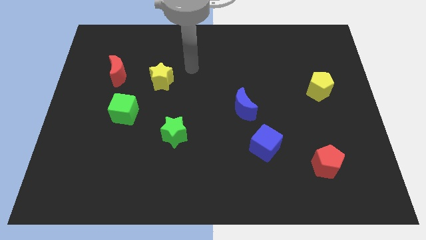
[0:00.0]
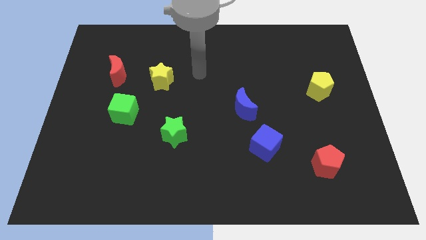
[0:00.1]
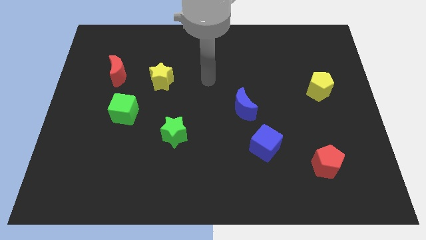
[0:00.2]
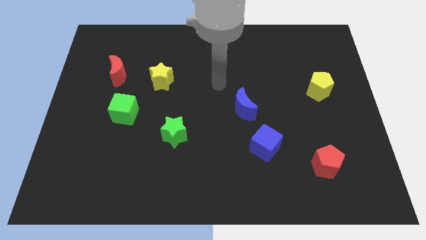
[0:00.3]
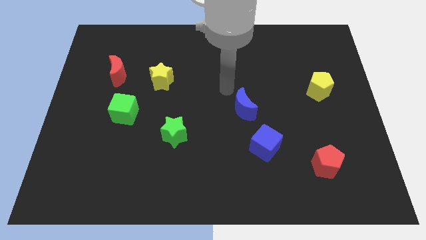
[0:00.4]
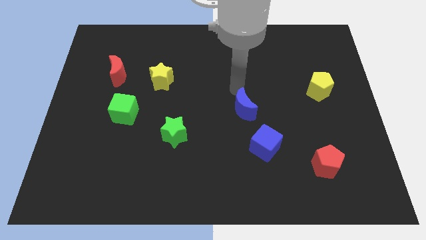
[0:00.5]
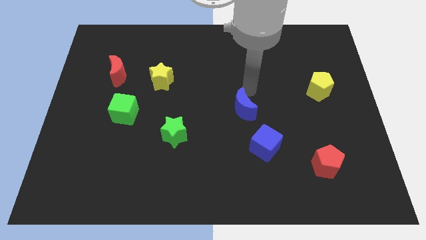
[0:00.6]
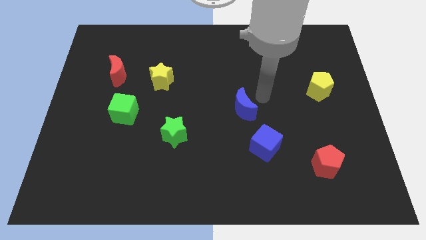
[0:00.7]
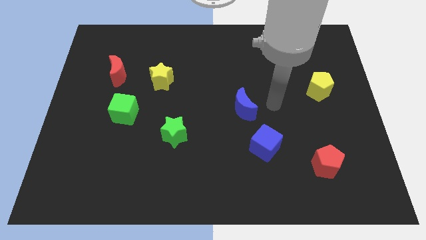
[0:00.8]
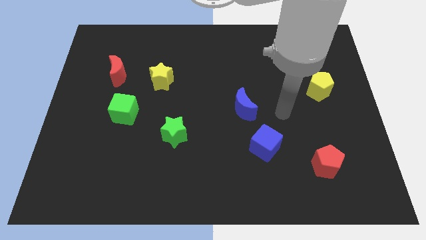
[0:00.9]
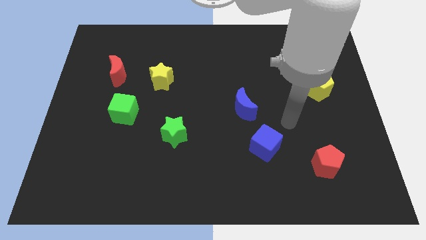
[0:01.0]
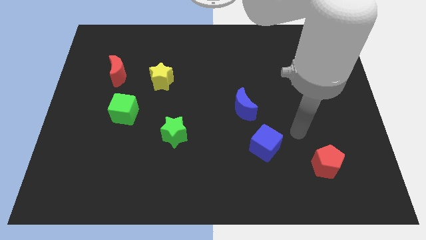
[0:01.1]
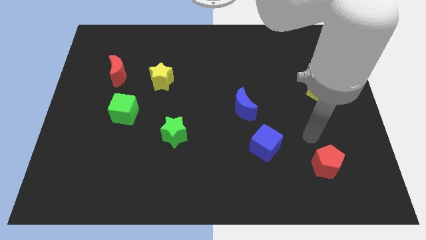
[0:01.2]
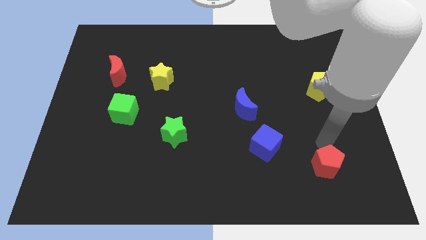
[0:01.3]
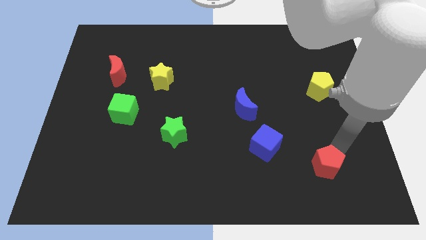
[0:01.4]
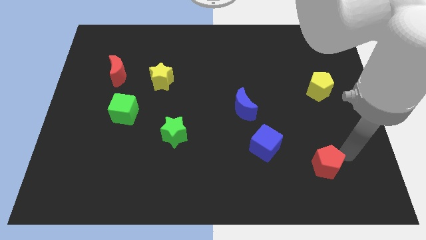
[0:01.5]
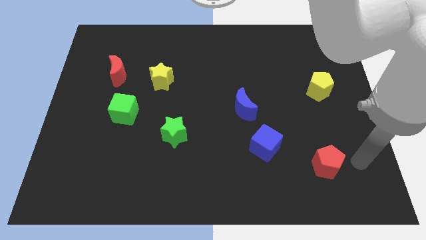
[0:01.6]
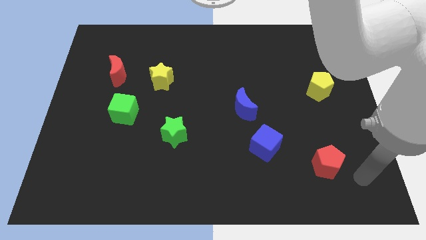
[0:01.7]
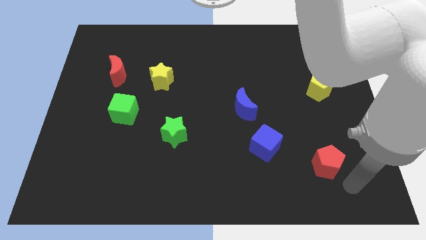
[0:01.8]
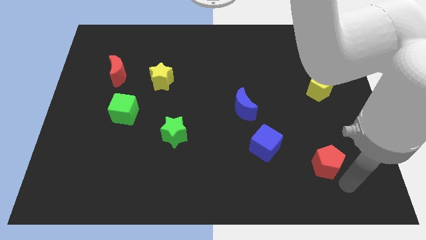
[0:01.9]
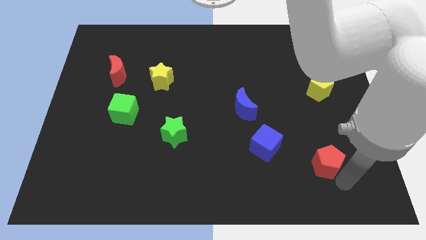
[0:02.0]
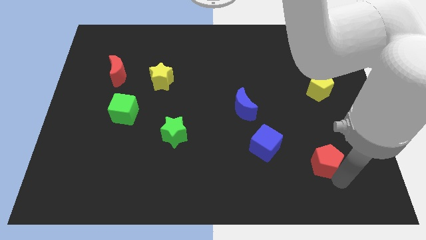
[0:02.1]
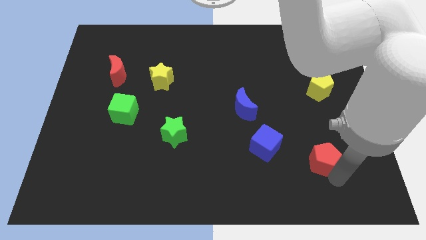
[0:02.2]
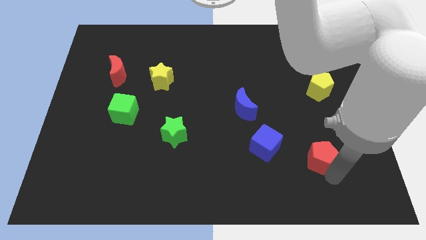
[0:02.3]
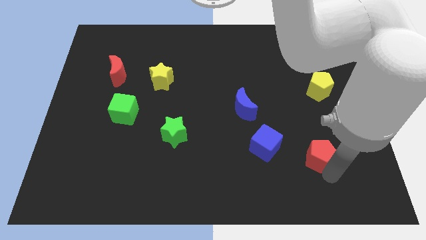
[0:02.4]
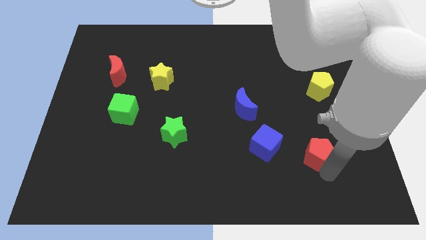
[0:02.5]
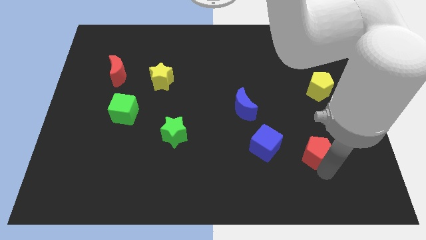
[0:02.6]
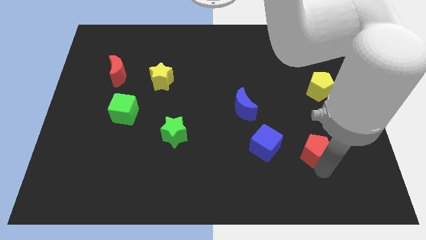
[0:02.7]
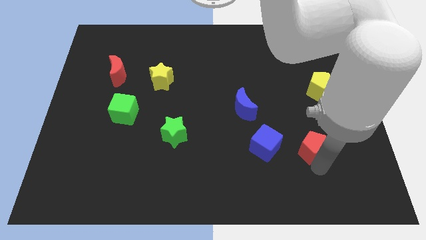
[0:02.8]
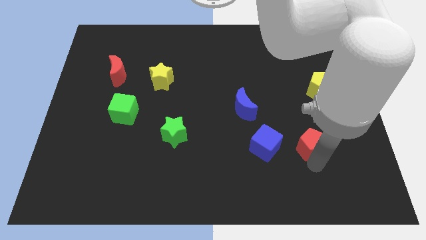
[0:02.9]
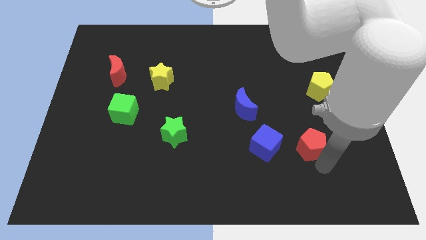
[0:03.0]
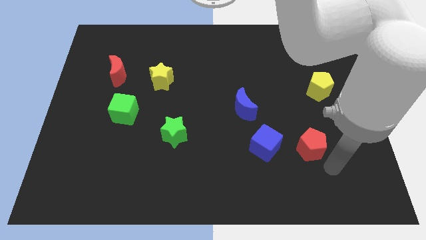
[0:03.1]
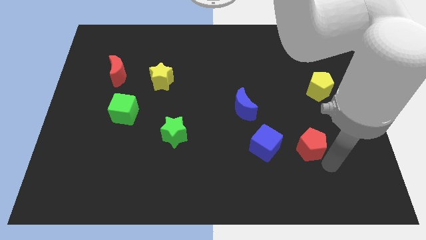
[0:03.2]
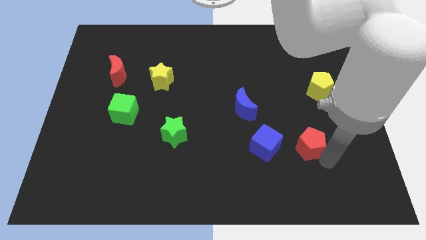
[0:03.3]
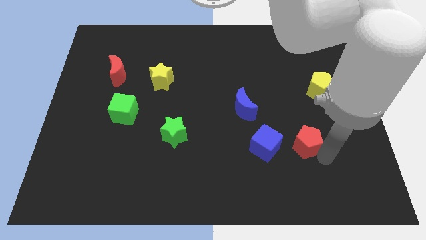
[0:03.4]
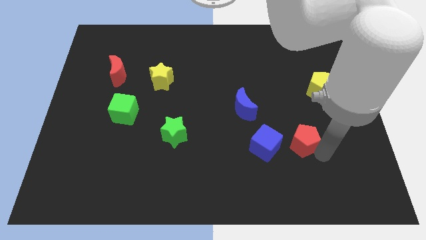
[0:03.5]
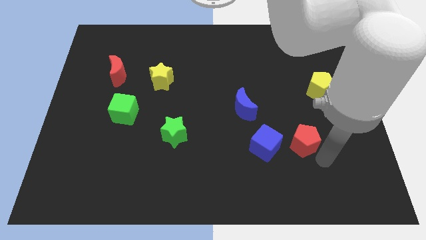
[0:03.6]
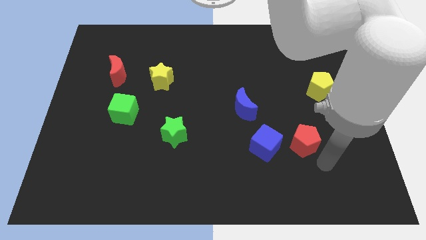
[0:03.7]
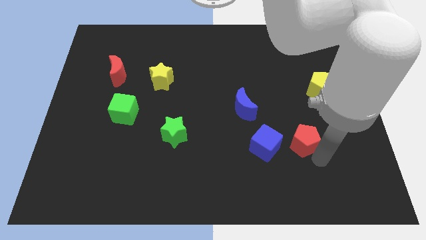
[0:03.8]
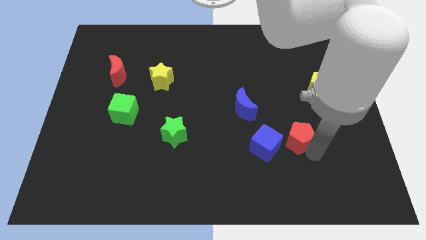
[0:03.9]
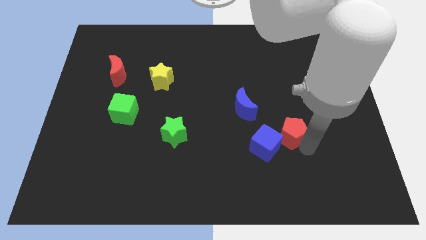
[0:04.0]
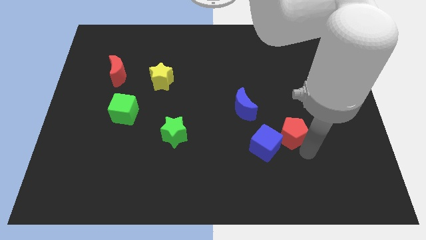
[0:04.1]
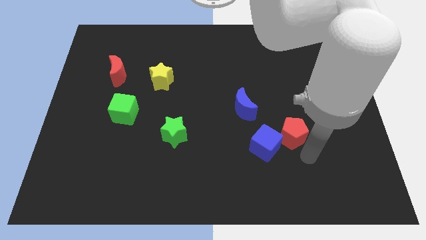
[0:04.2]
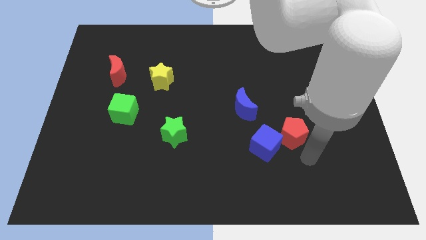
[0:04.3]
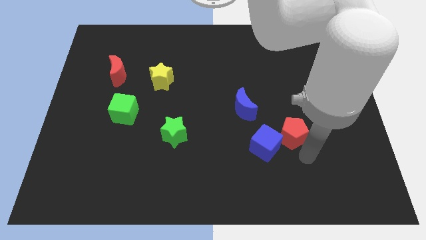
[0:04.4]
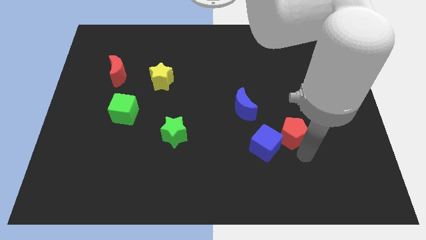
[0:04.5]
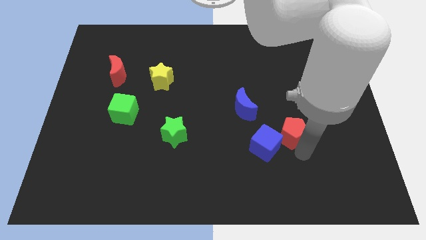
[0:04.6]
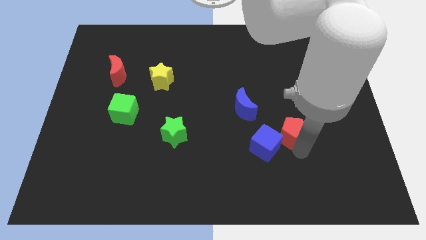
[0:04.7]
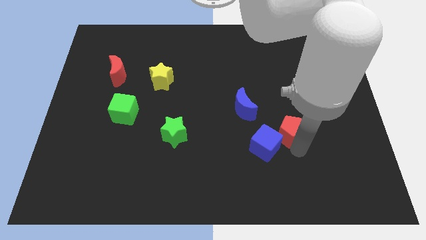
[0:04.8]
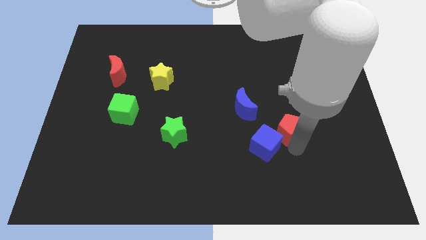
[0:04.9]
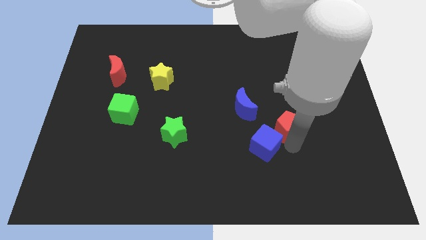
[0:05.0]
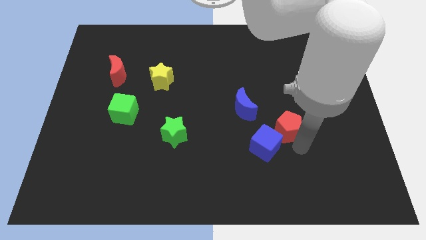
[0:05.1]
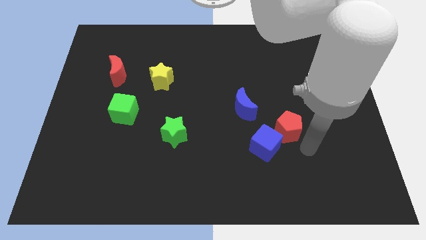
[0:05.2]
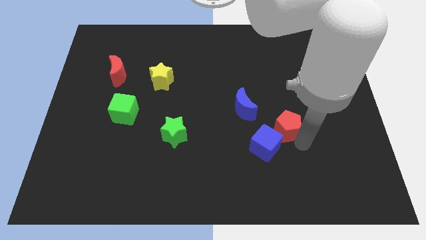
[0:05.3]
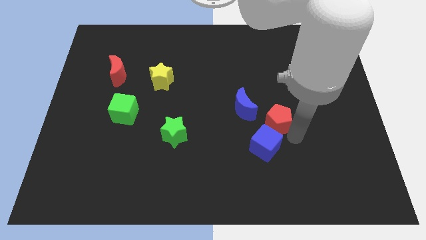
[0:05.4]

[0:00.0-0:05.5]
slide the red pentagon to the top side of the blue cube

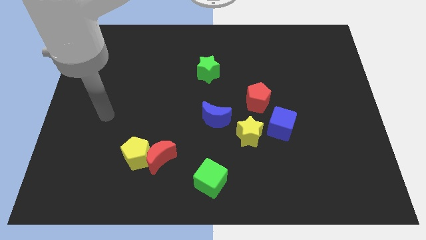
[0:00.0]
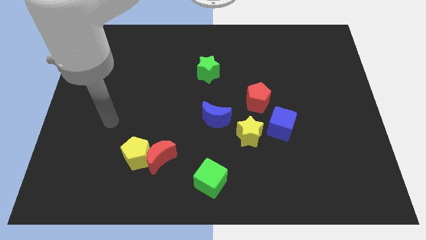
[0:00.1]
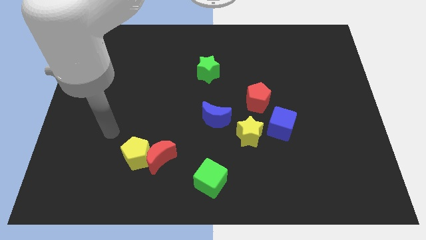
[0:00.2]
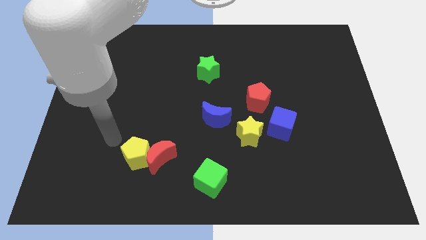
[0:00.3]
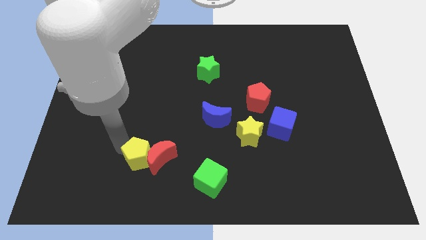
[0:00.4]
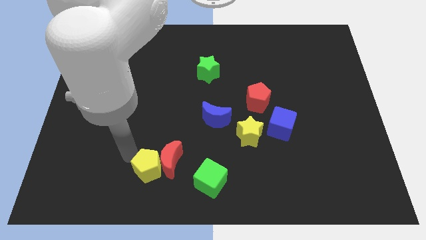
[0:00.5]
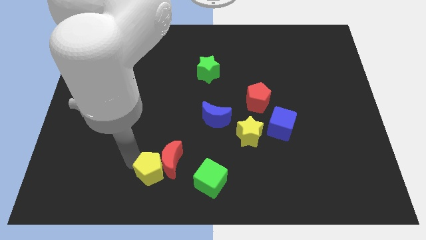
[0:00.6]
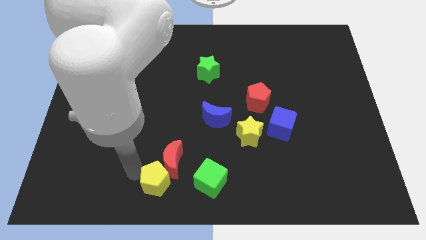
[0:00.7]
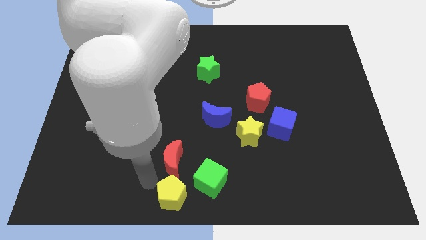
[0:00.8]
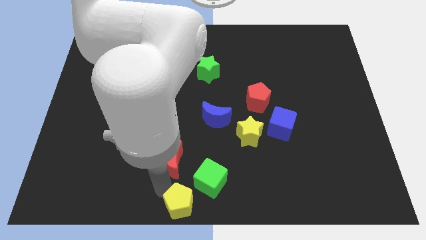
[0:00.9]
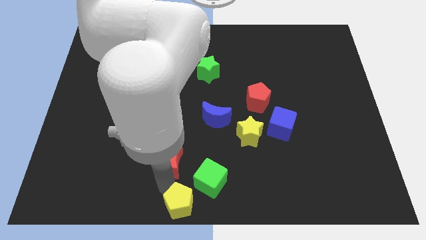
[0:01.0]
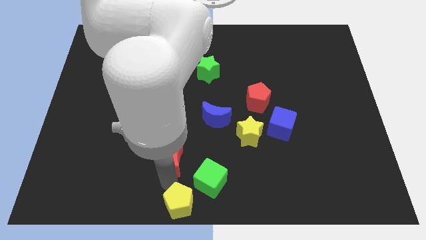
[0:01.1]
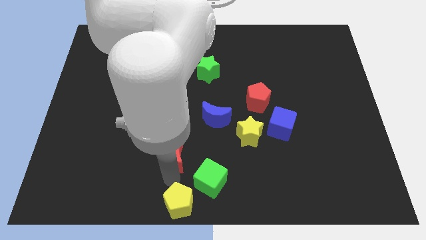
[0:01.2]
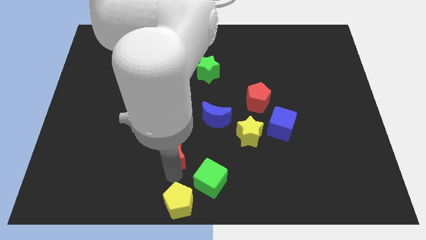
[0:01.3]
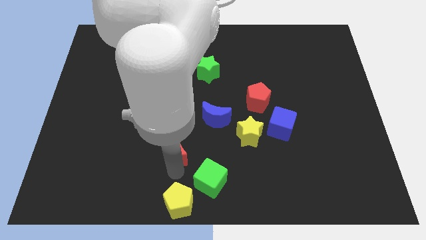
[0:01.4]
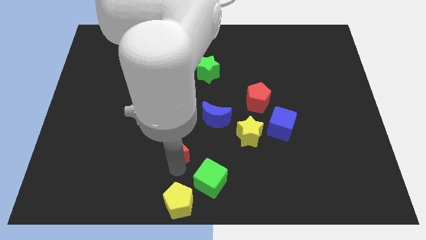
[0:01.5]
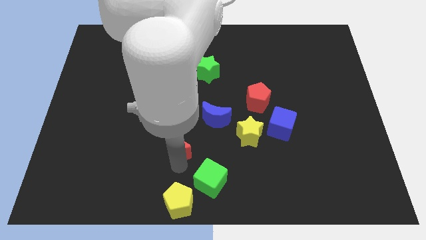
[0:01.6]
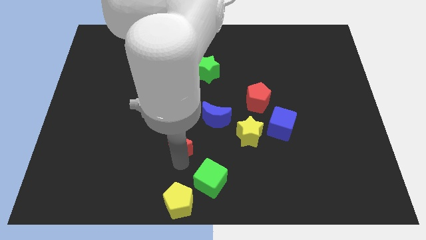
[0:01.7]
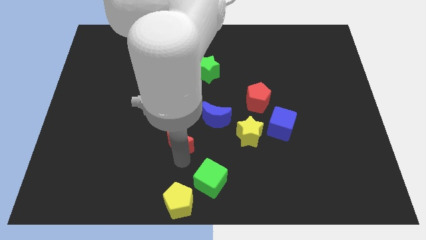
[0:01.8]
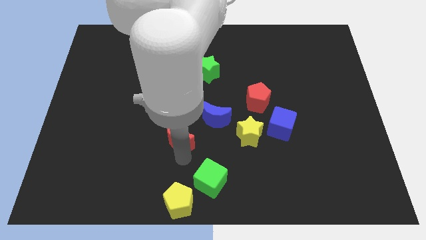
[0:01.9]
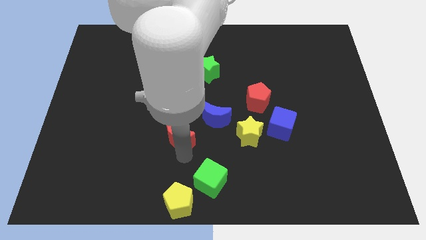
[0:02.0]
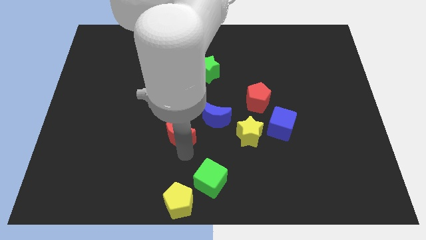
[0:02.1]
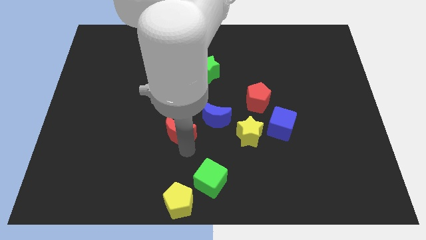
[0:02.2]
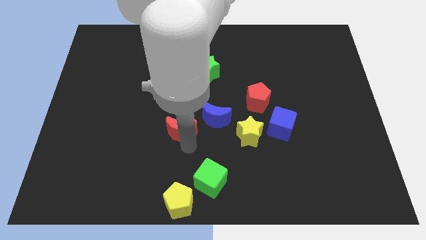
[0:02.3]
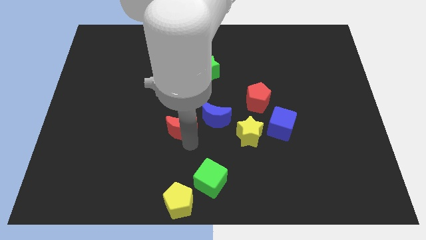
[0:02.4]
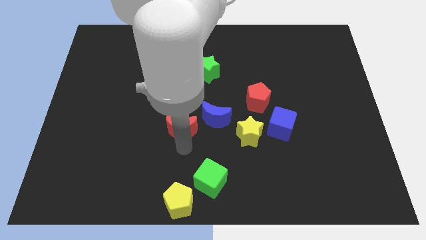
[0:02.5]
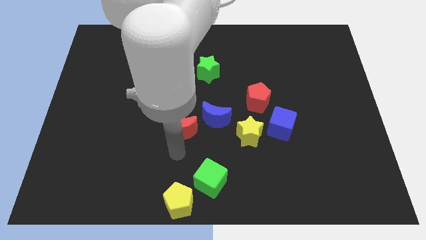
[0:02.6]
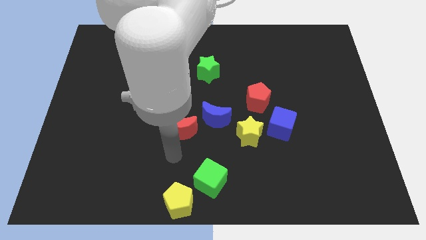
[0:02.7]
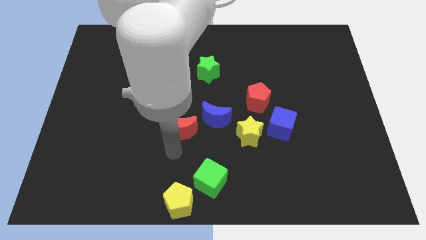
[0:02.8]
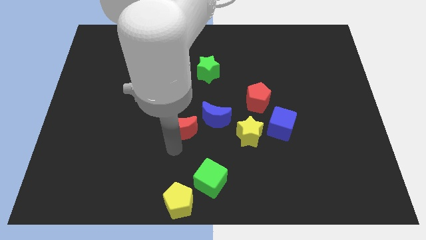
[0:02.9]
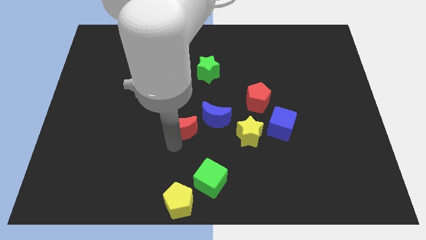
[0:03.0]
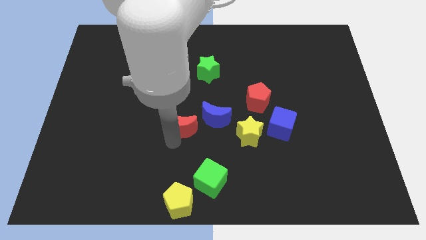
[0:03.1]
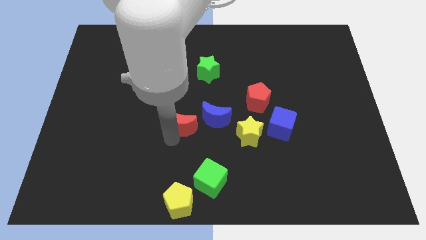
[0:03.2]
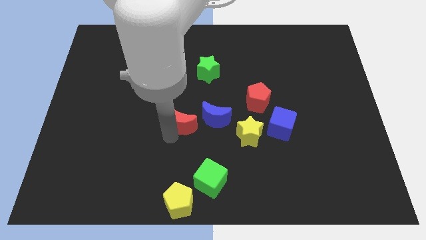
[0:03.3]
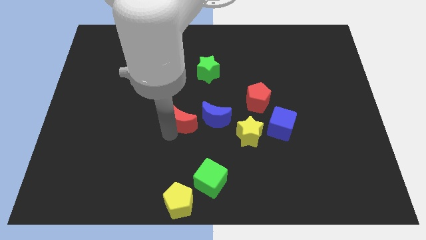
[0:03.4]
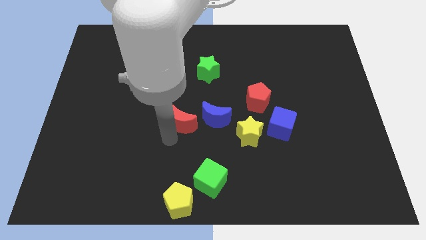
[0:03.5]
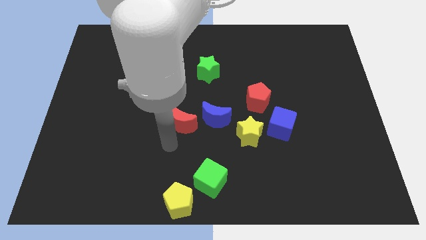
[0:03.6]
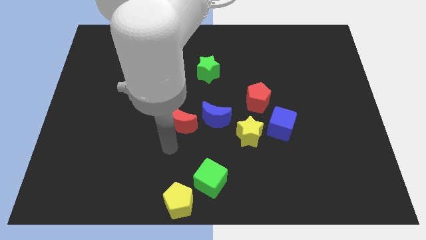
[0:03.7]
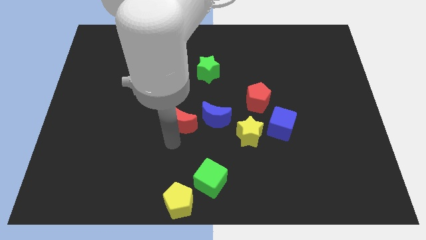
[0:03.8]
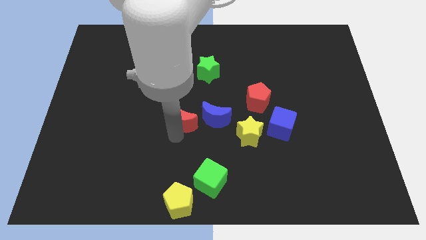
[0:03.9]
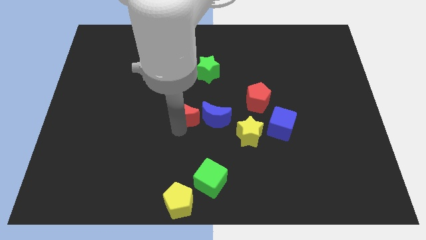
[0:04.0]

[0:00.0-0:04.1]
push the red moon diagonally up and to the left of the blue moon
